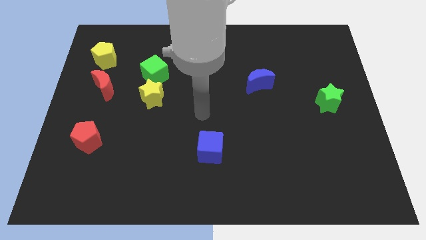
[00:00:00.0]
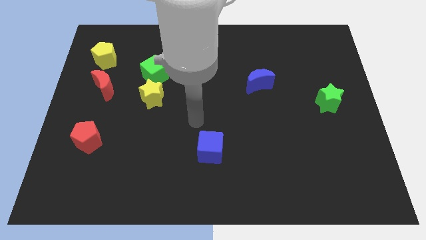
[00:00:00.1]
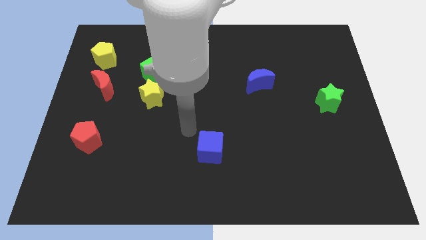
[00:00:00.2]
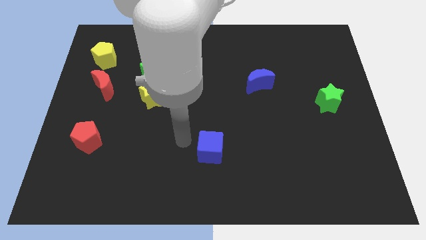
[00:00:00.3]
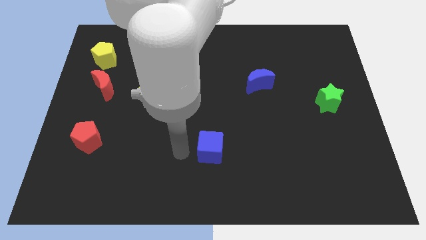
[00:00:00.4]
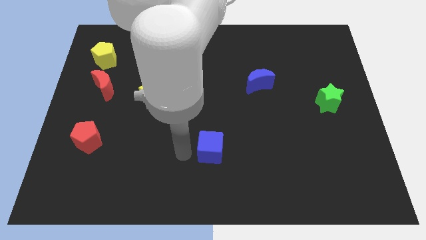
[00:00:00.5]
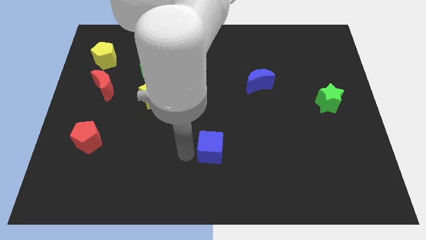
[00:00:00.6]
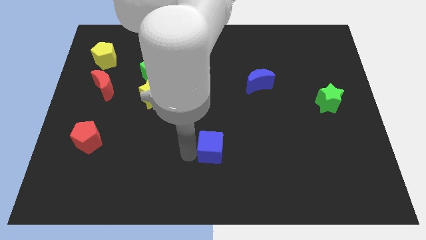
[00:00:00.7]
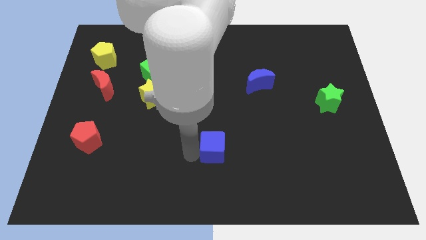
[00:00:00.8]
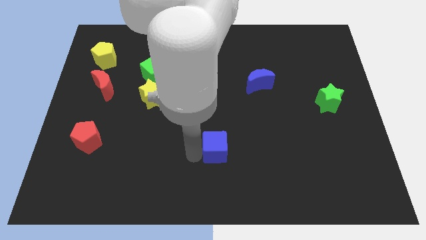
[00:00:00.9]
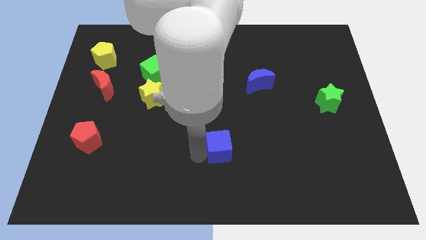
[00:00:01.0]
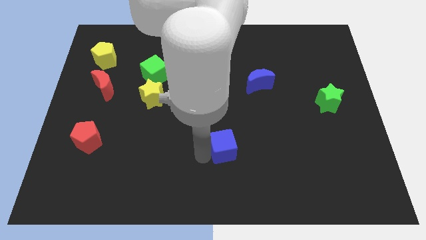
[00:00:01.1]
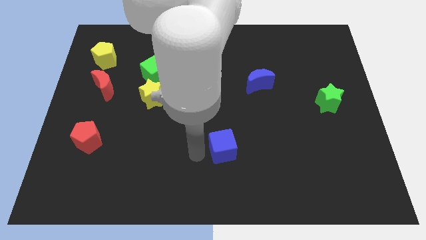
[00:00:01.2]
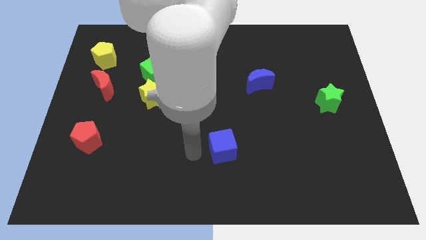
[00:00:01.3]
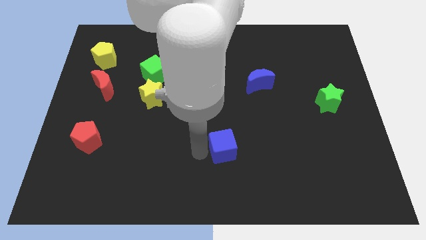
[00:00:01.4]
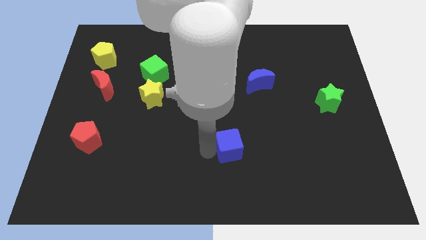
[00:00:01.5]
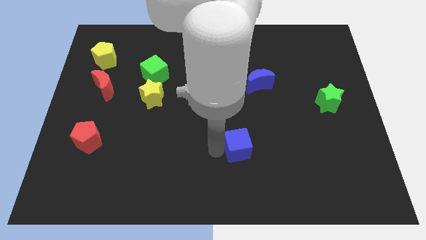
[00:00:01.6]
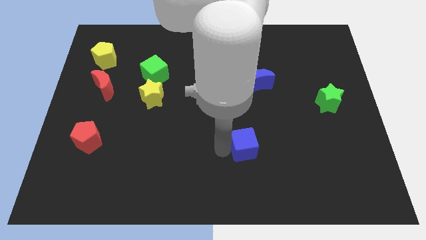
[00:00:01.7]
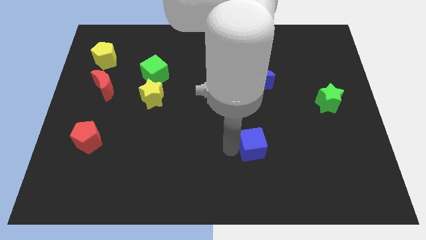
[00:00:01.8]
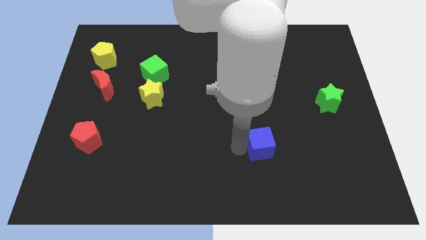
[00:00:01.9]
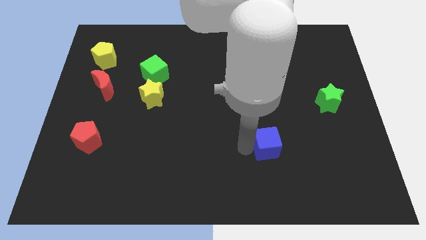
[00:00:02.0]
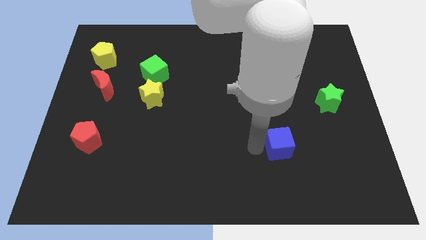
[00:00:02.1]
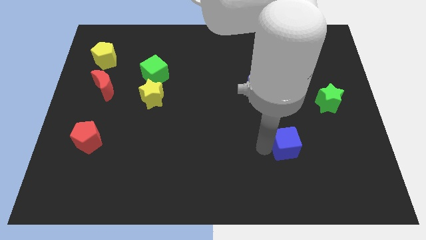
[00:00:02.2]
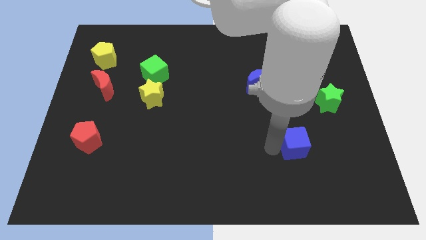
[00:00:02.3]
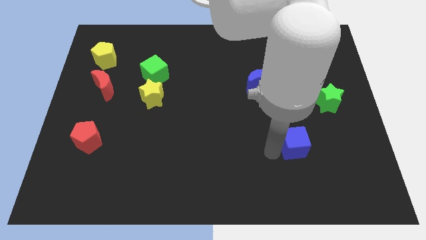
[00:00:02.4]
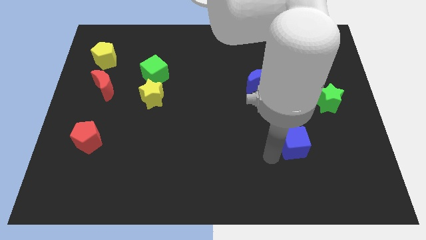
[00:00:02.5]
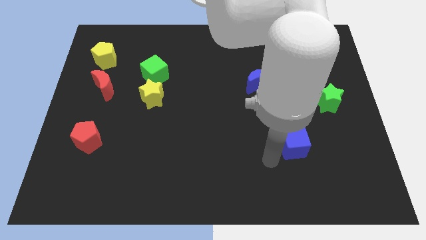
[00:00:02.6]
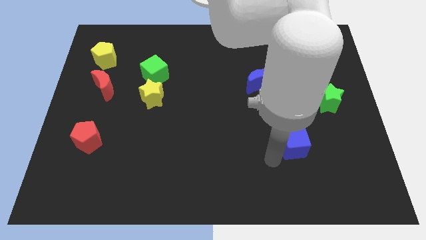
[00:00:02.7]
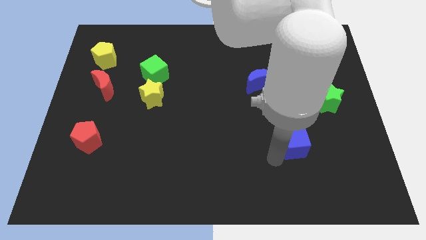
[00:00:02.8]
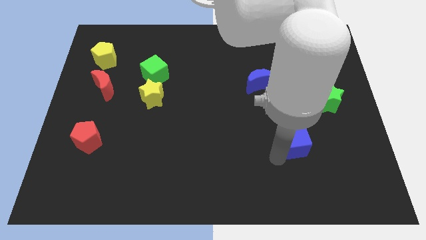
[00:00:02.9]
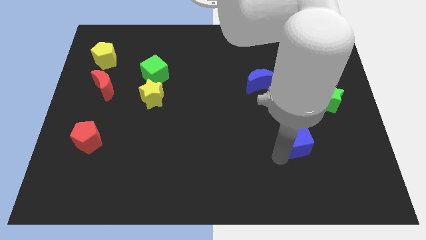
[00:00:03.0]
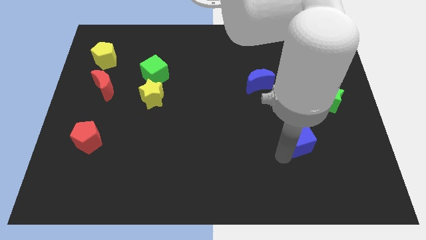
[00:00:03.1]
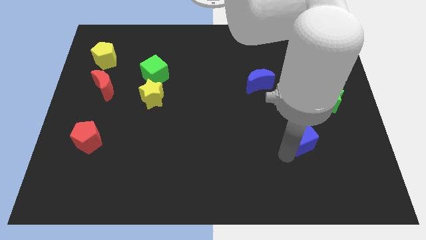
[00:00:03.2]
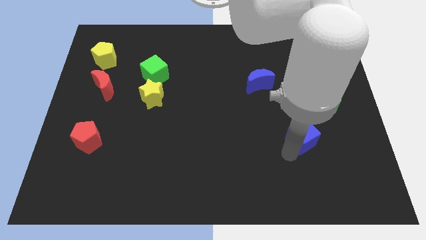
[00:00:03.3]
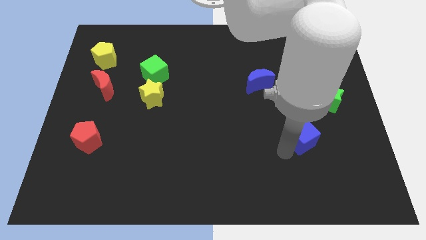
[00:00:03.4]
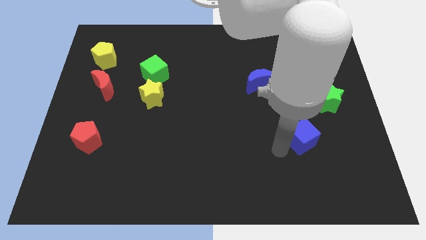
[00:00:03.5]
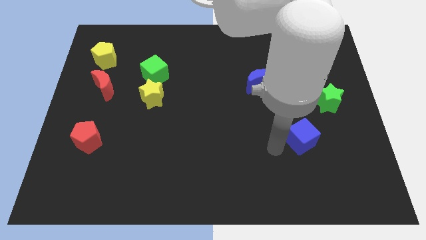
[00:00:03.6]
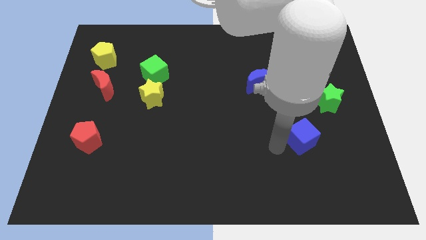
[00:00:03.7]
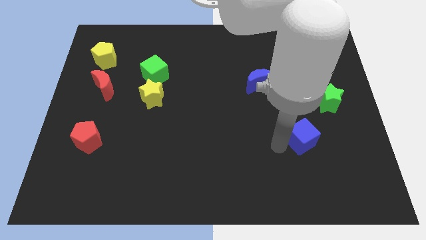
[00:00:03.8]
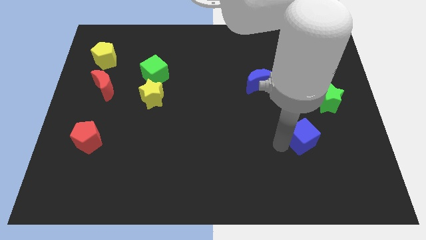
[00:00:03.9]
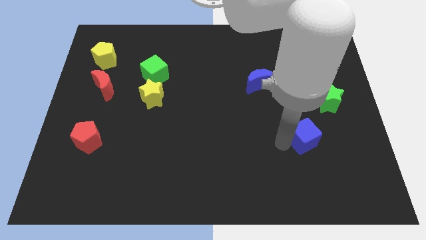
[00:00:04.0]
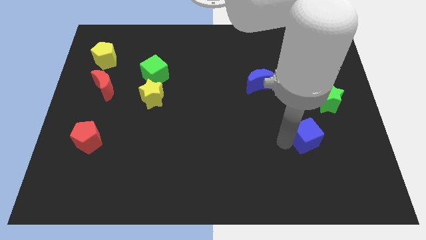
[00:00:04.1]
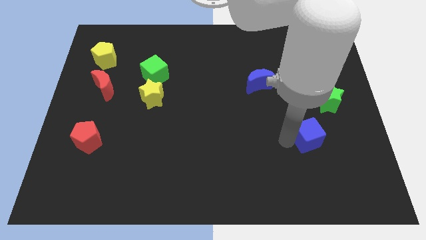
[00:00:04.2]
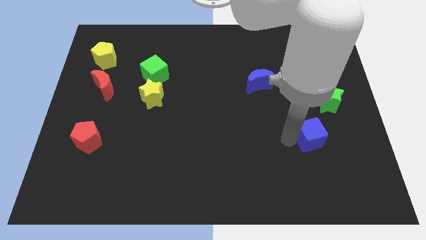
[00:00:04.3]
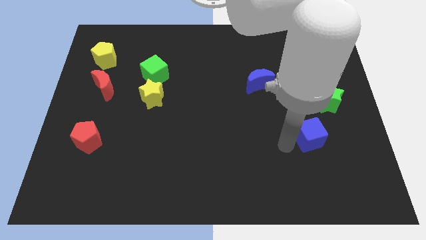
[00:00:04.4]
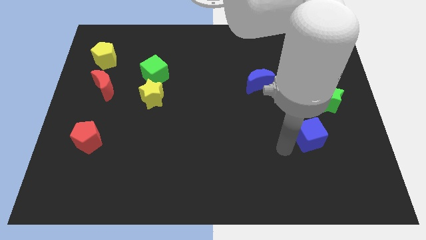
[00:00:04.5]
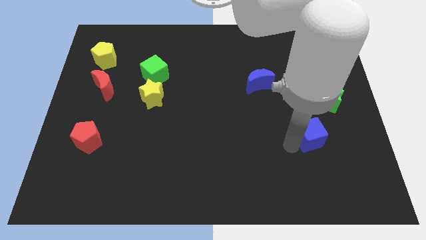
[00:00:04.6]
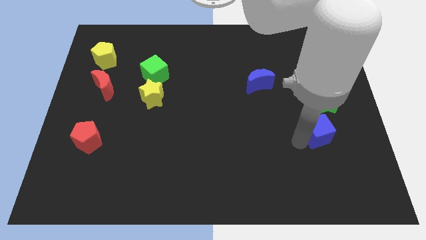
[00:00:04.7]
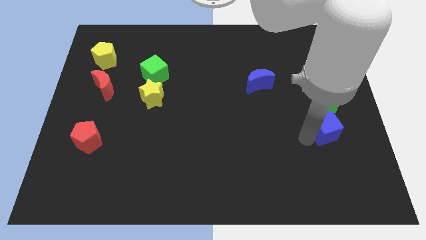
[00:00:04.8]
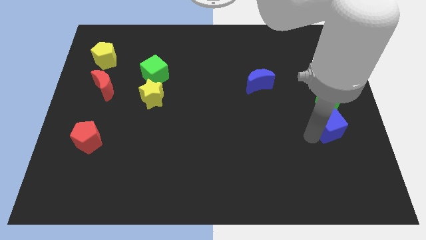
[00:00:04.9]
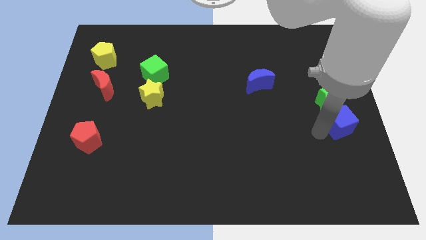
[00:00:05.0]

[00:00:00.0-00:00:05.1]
put the blue cube to the right side

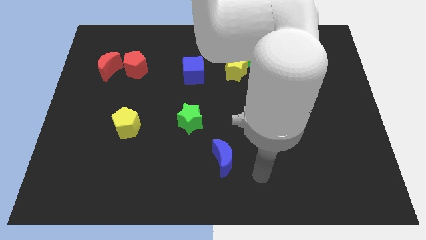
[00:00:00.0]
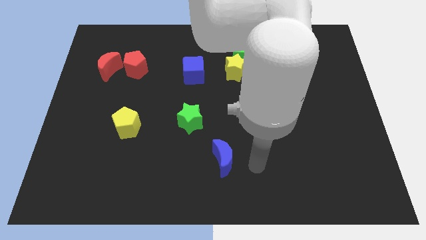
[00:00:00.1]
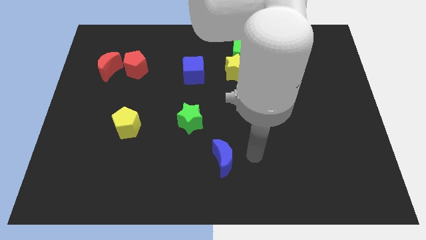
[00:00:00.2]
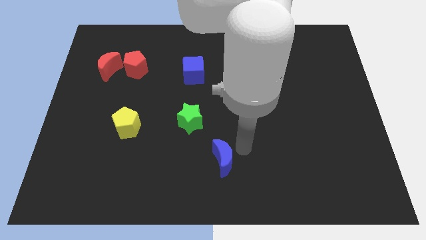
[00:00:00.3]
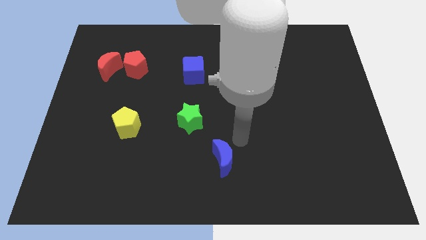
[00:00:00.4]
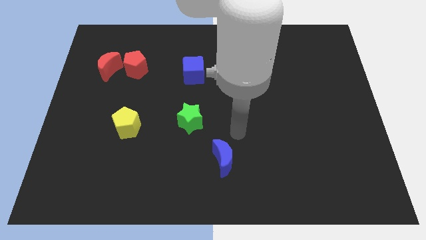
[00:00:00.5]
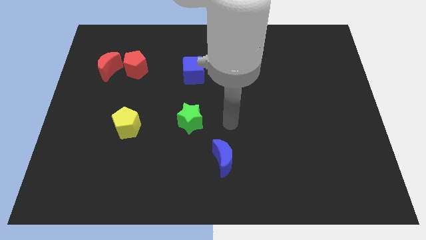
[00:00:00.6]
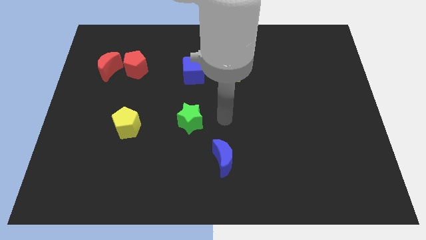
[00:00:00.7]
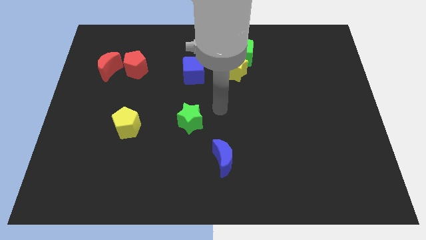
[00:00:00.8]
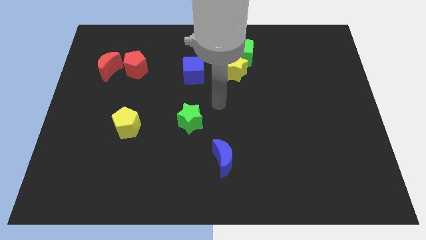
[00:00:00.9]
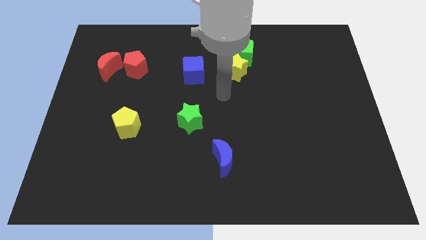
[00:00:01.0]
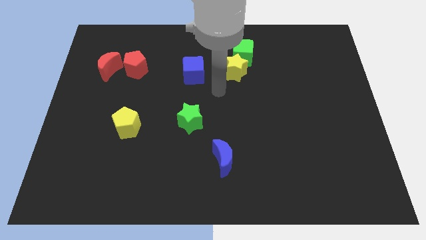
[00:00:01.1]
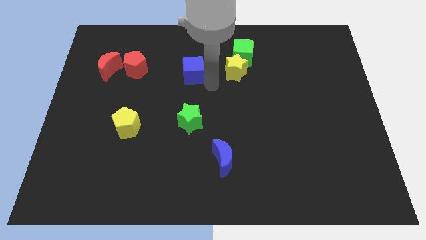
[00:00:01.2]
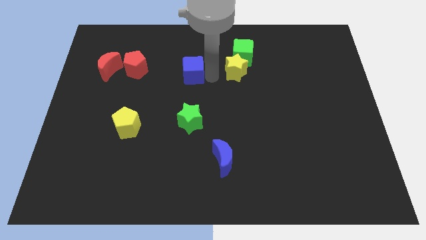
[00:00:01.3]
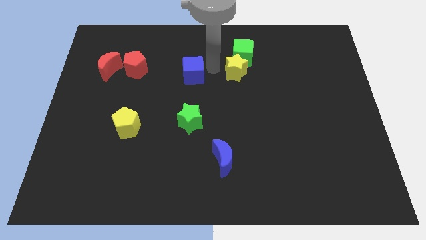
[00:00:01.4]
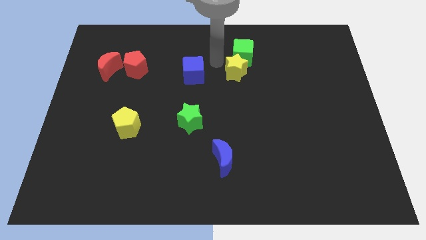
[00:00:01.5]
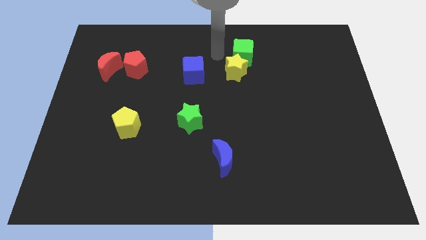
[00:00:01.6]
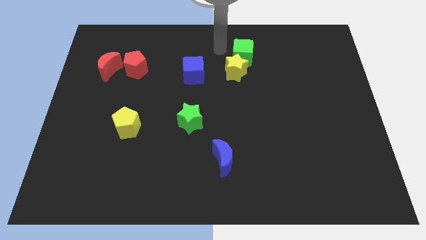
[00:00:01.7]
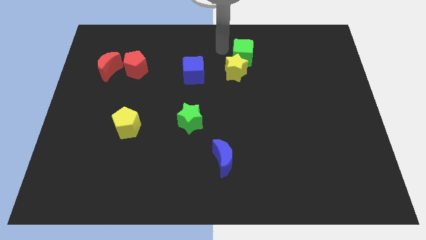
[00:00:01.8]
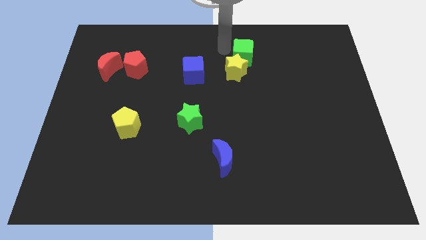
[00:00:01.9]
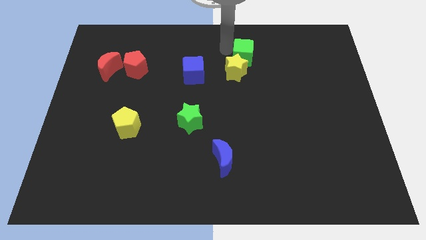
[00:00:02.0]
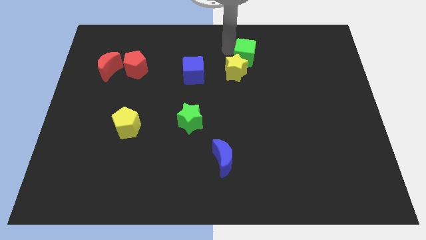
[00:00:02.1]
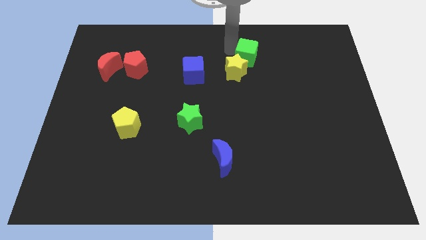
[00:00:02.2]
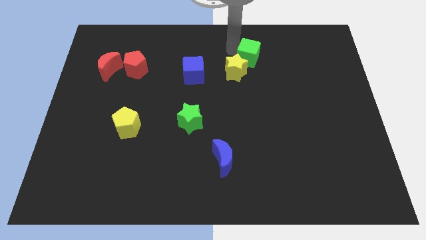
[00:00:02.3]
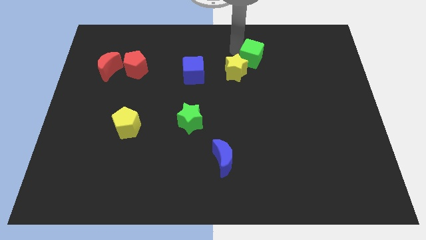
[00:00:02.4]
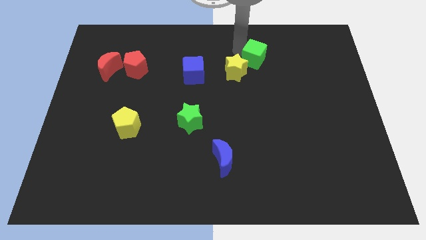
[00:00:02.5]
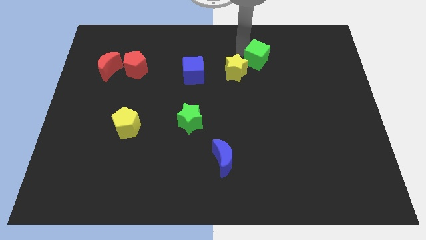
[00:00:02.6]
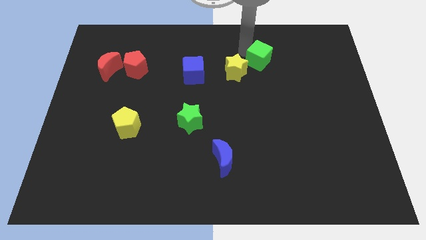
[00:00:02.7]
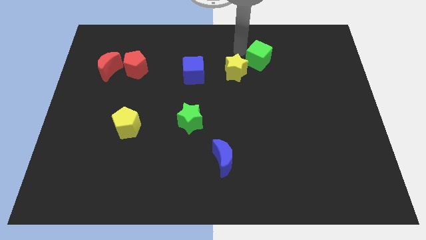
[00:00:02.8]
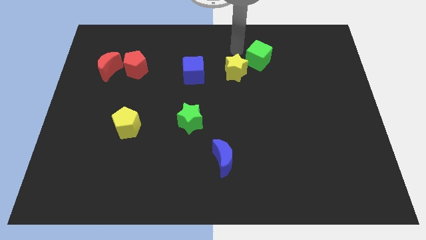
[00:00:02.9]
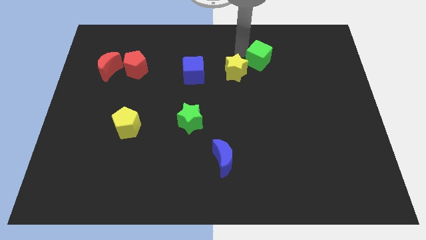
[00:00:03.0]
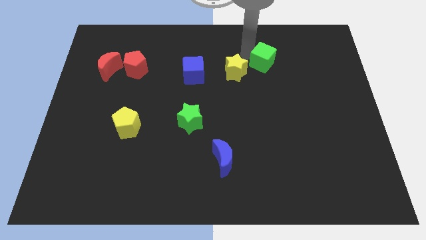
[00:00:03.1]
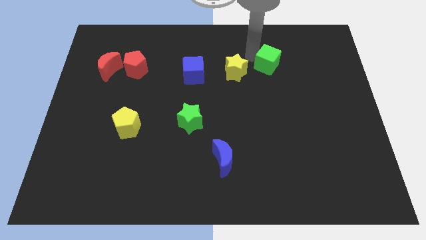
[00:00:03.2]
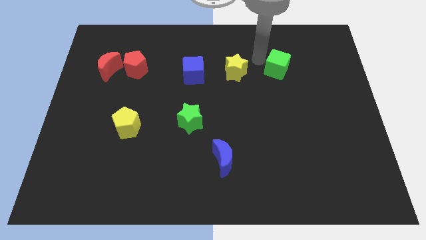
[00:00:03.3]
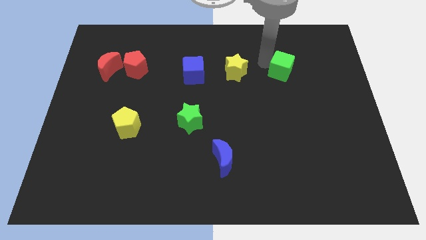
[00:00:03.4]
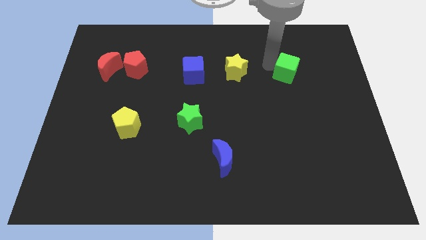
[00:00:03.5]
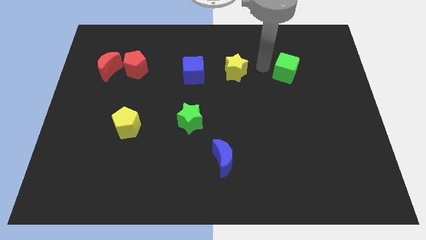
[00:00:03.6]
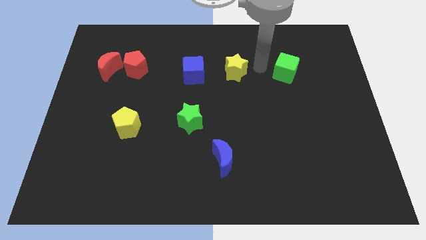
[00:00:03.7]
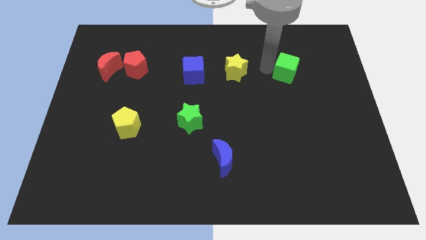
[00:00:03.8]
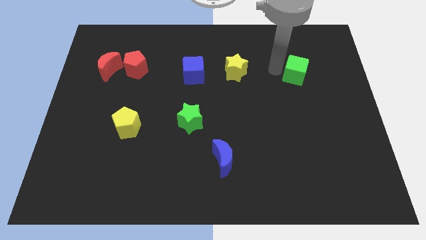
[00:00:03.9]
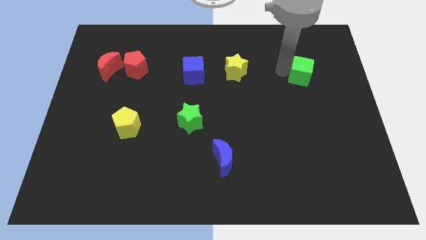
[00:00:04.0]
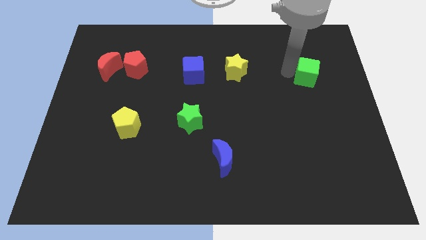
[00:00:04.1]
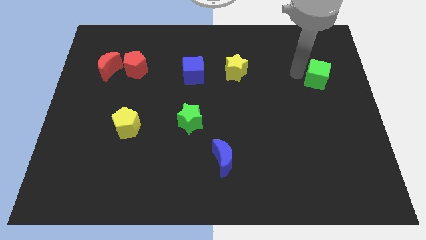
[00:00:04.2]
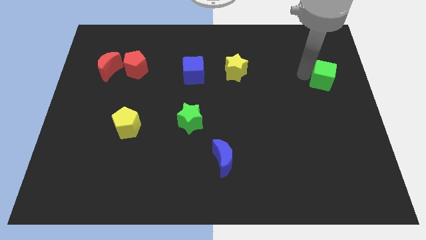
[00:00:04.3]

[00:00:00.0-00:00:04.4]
push the green cube to the right side
